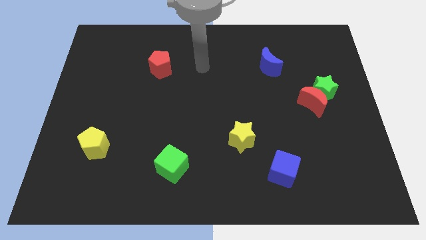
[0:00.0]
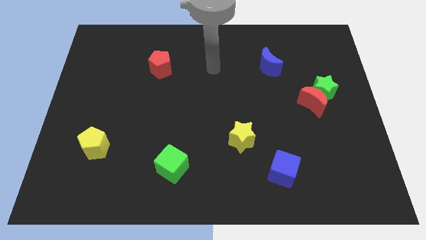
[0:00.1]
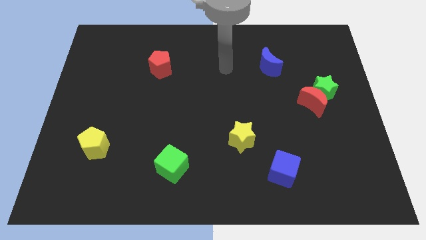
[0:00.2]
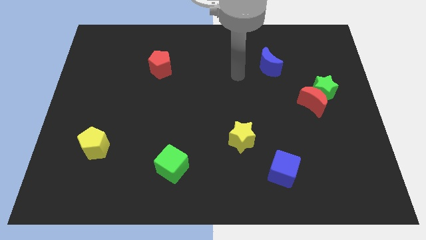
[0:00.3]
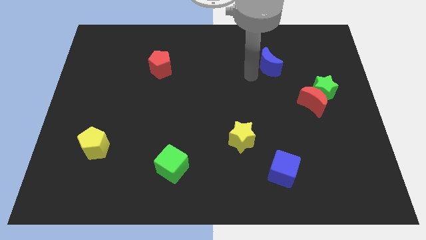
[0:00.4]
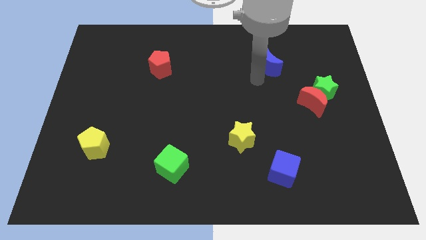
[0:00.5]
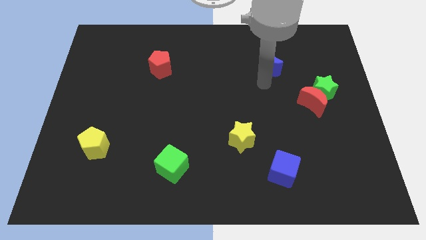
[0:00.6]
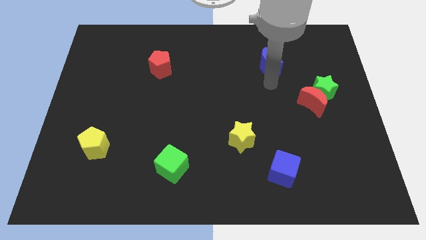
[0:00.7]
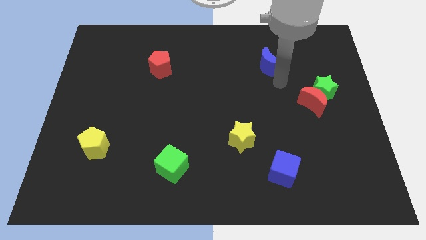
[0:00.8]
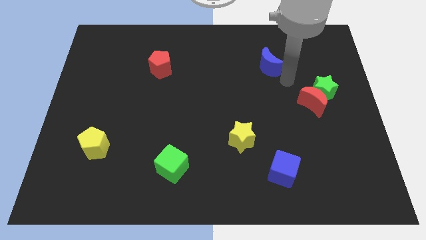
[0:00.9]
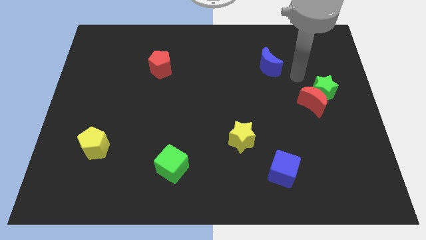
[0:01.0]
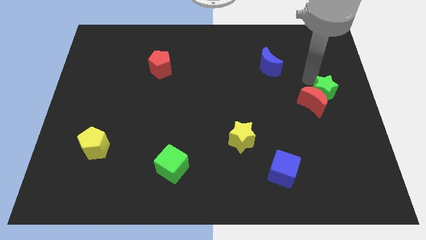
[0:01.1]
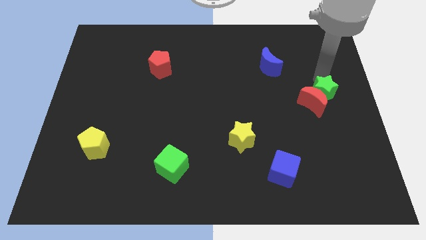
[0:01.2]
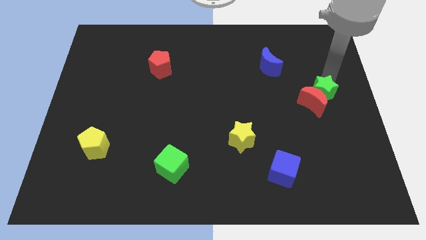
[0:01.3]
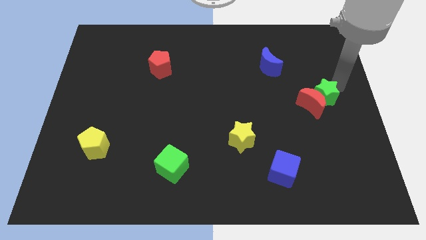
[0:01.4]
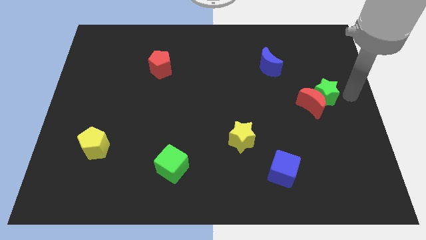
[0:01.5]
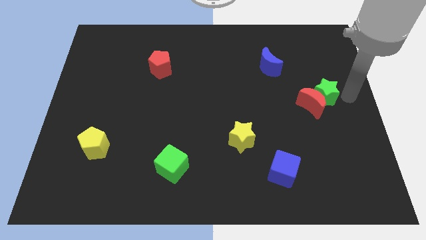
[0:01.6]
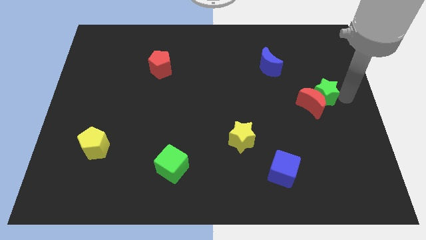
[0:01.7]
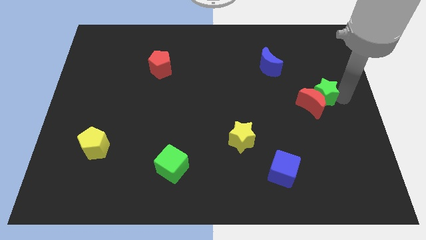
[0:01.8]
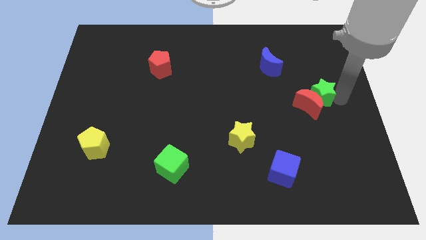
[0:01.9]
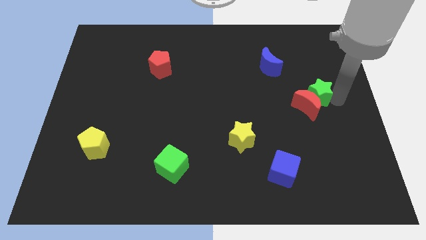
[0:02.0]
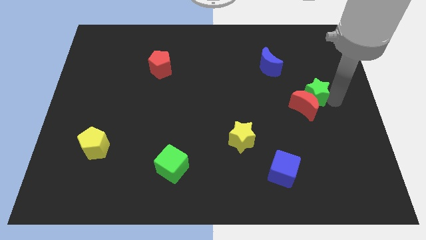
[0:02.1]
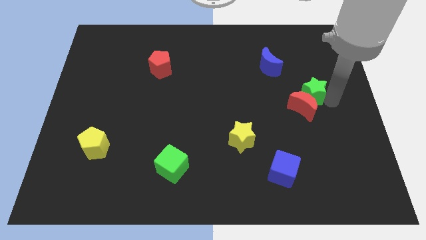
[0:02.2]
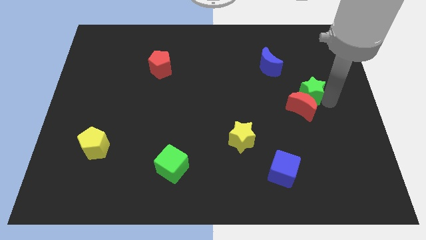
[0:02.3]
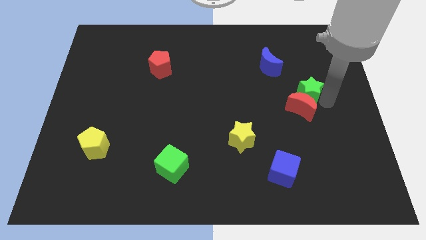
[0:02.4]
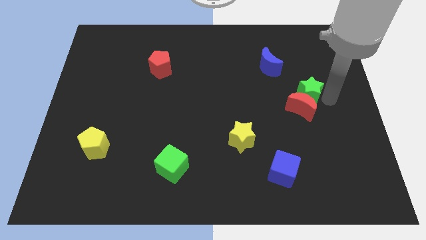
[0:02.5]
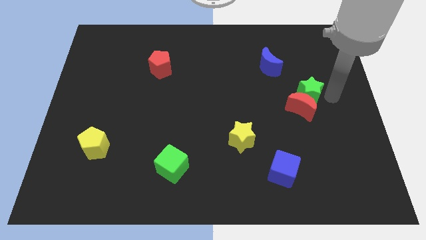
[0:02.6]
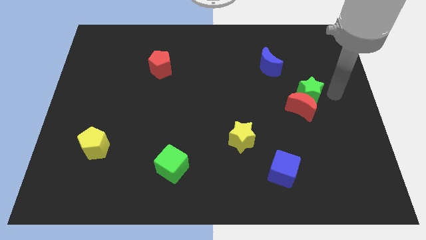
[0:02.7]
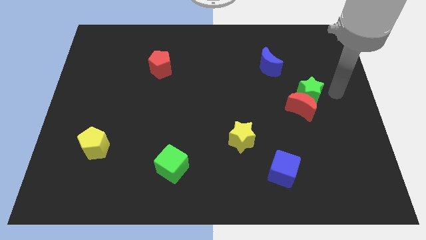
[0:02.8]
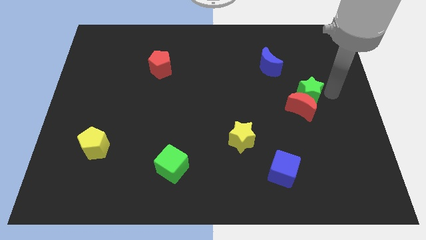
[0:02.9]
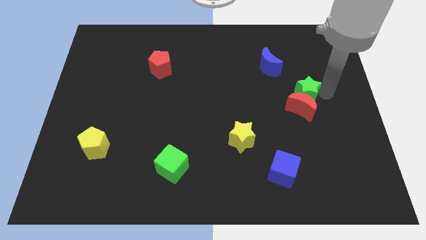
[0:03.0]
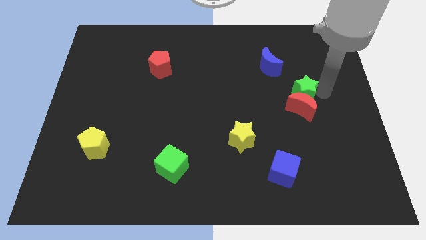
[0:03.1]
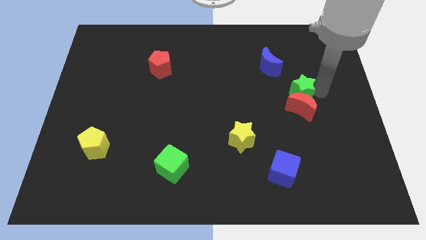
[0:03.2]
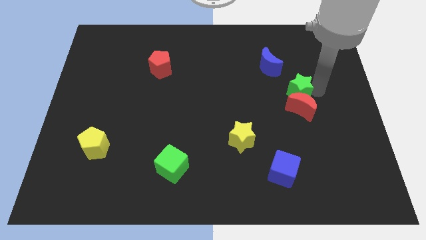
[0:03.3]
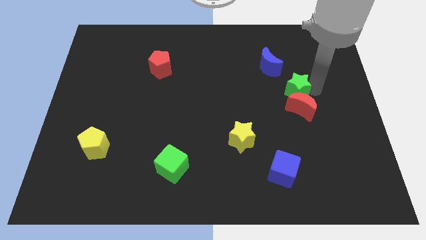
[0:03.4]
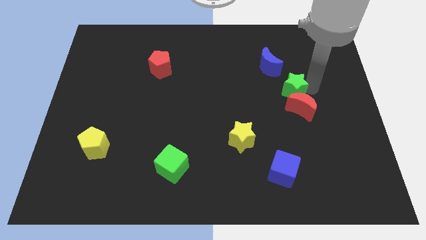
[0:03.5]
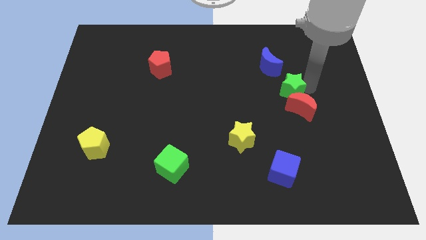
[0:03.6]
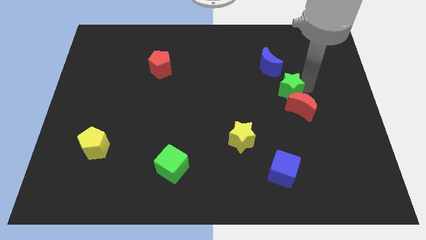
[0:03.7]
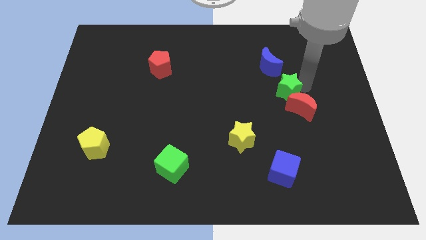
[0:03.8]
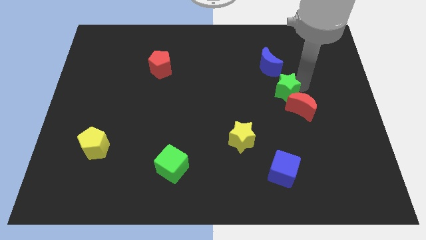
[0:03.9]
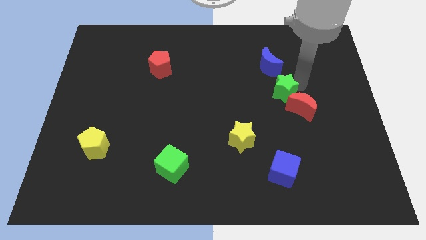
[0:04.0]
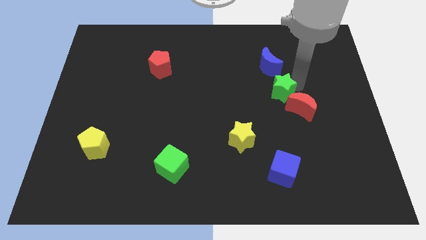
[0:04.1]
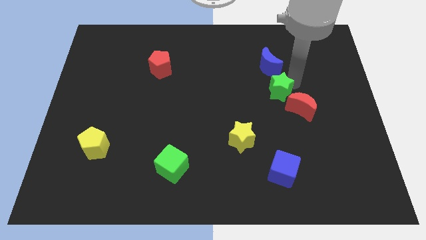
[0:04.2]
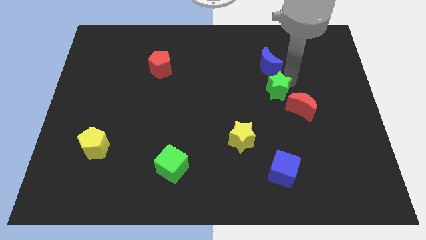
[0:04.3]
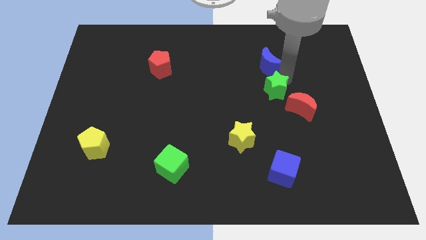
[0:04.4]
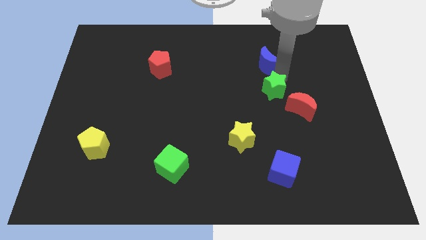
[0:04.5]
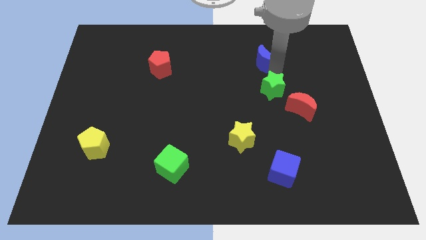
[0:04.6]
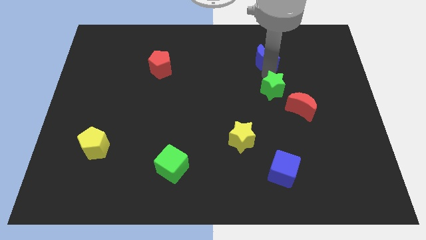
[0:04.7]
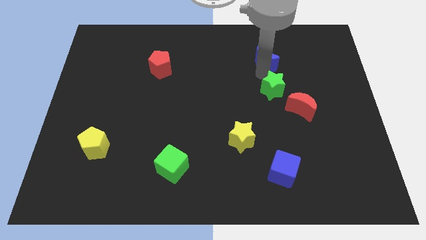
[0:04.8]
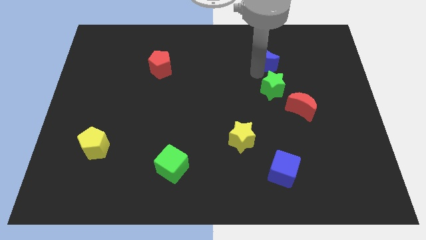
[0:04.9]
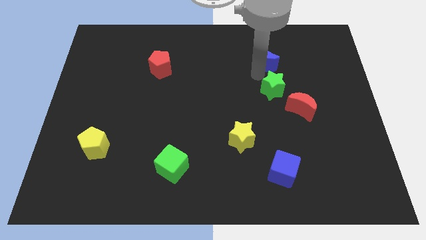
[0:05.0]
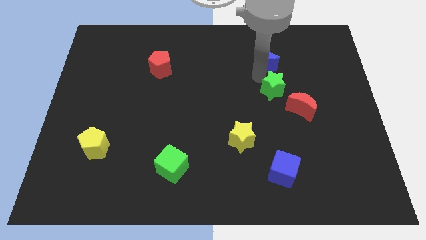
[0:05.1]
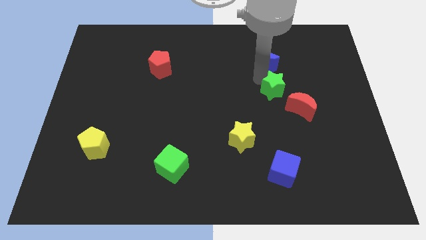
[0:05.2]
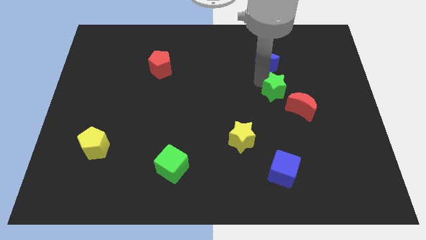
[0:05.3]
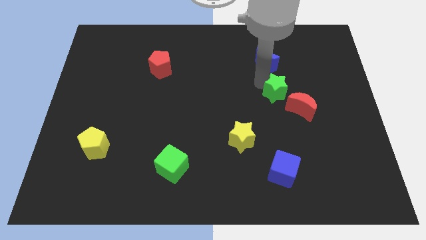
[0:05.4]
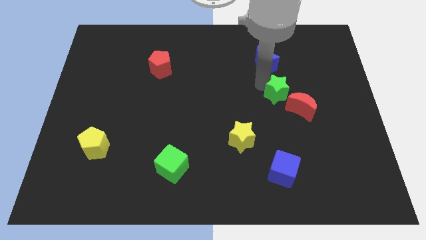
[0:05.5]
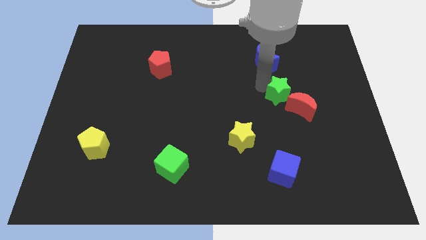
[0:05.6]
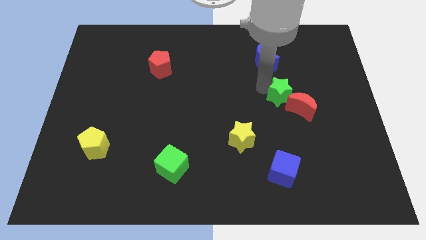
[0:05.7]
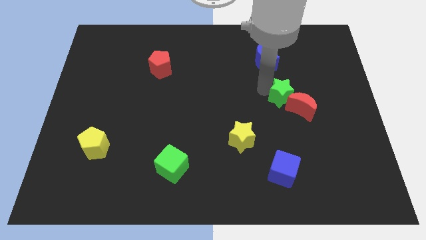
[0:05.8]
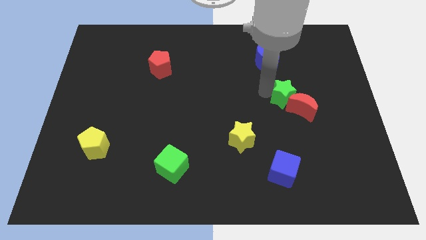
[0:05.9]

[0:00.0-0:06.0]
move the green star a little bit diagonally down and left

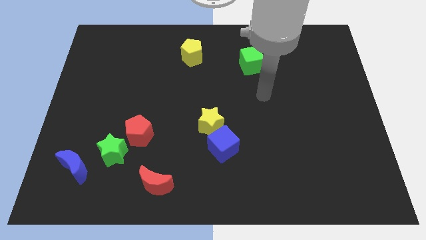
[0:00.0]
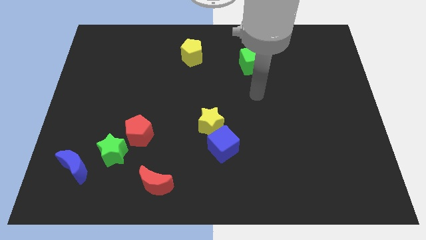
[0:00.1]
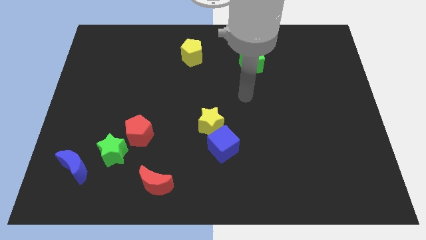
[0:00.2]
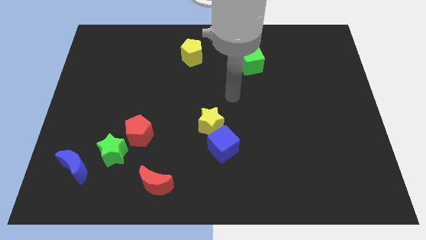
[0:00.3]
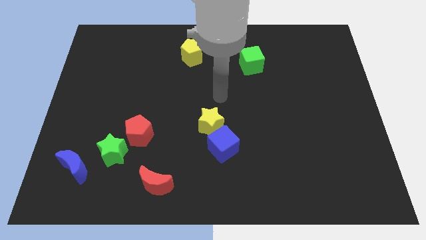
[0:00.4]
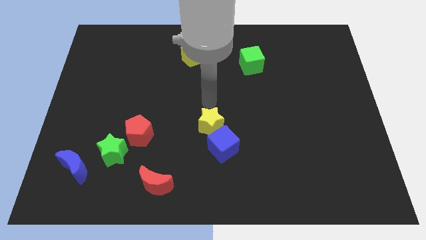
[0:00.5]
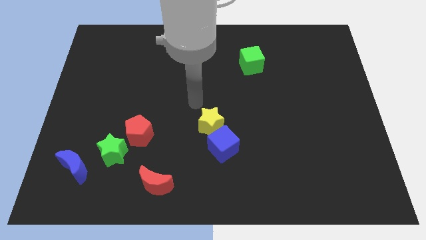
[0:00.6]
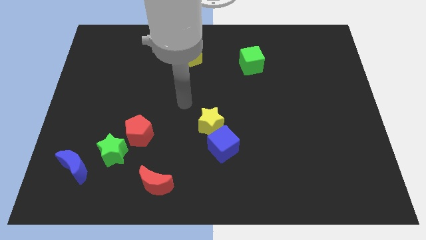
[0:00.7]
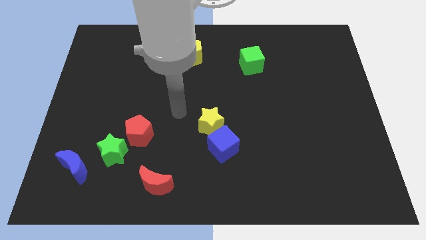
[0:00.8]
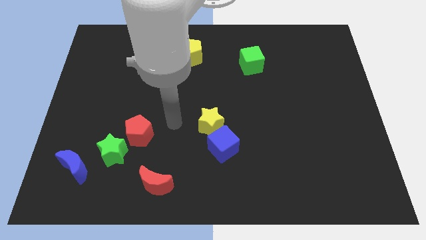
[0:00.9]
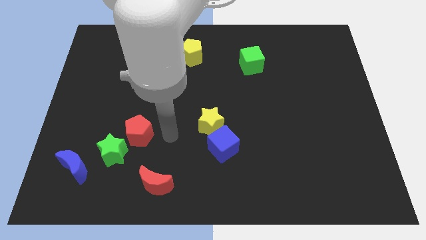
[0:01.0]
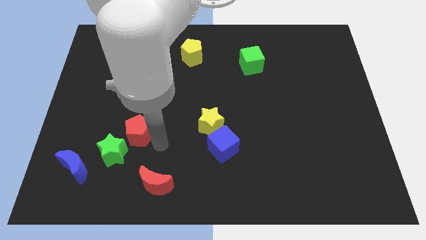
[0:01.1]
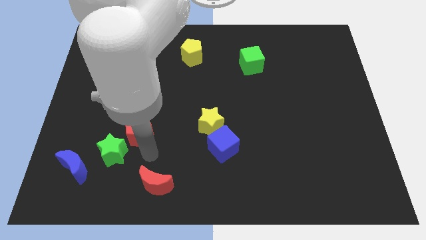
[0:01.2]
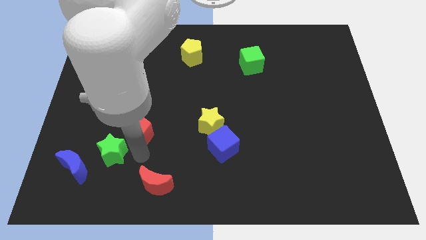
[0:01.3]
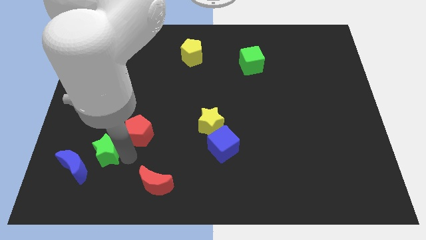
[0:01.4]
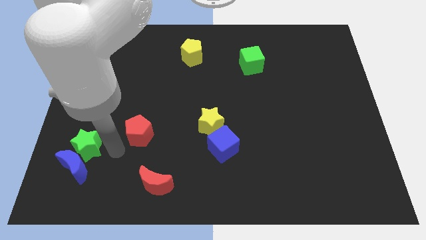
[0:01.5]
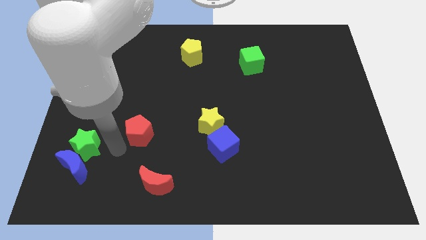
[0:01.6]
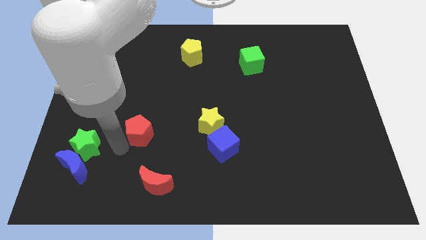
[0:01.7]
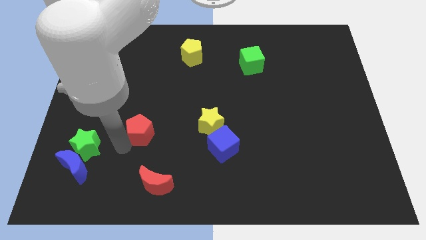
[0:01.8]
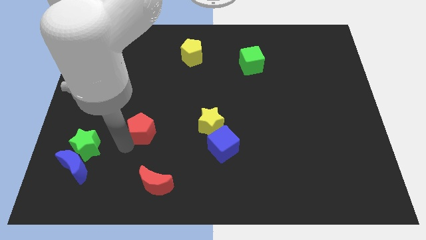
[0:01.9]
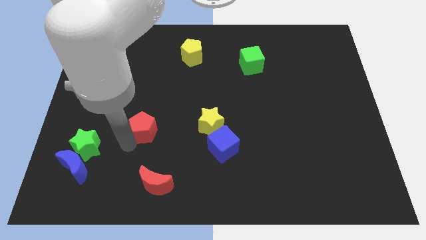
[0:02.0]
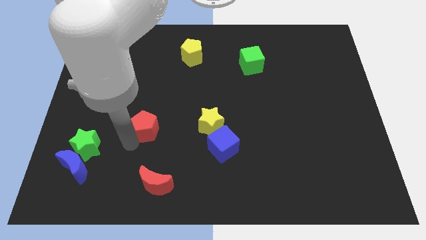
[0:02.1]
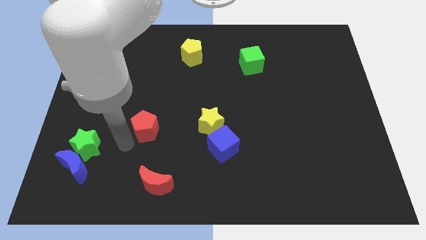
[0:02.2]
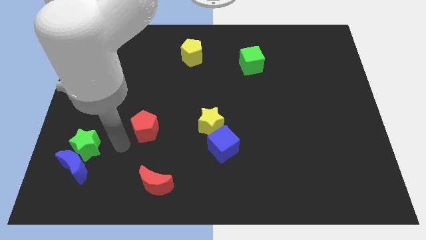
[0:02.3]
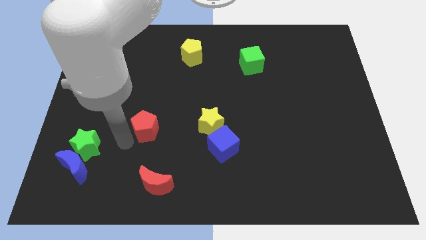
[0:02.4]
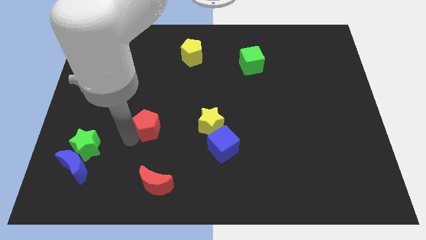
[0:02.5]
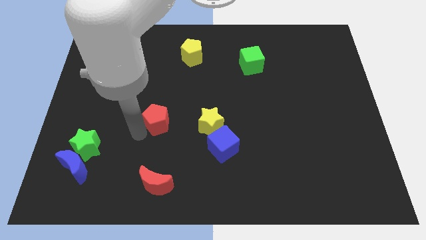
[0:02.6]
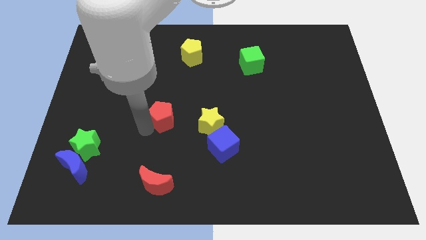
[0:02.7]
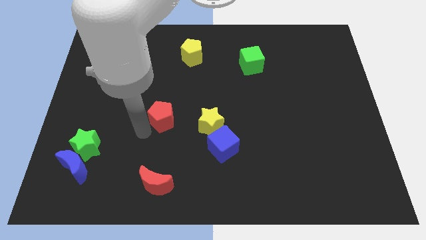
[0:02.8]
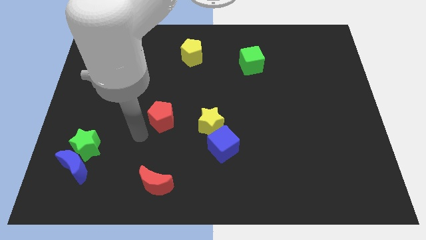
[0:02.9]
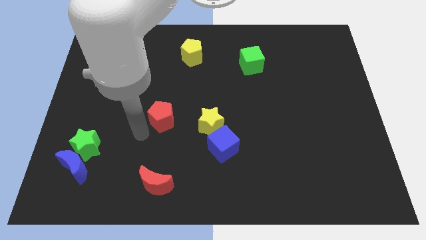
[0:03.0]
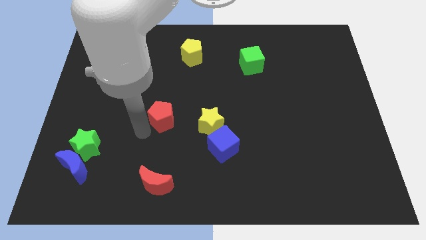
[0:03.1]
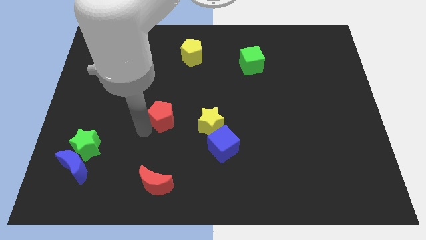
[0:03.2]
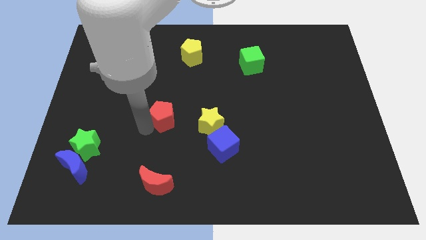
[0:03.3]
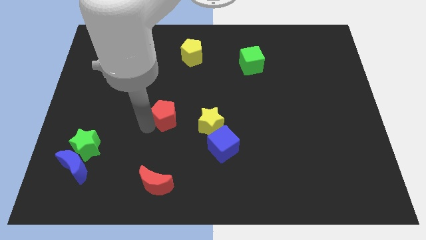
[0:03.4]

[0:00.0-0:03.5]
move the red pentagon up and right diagonally a bit
